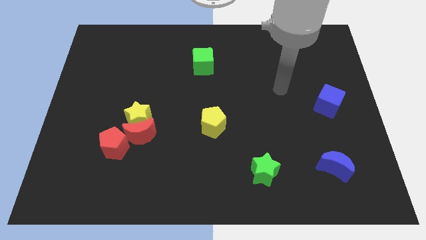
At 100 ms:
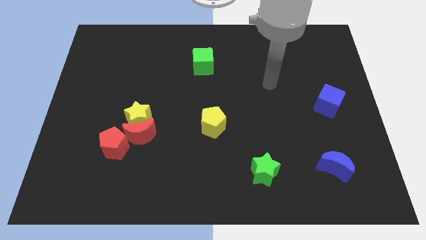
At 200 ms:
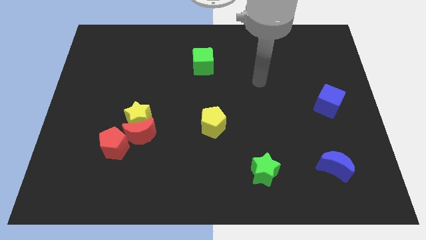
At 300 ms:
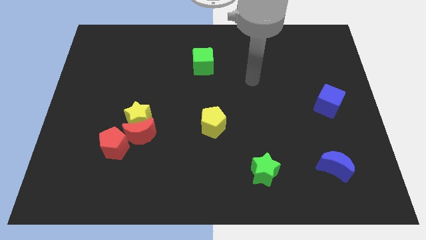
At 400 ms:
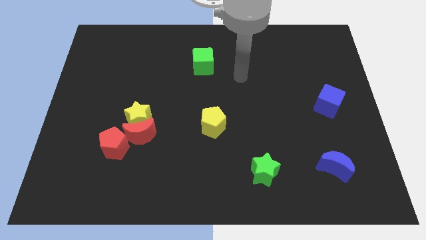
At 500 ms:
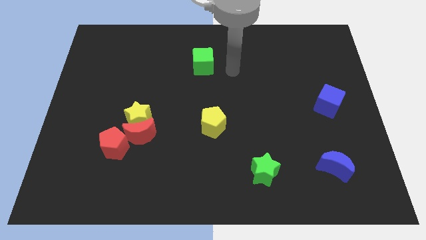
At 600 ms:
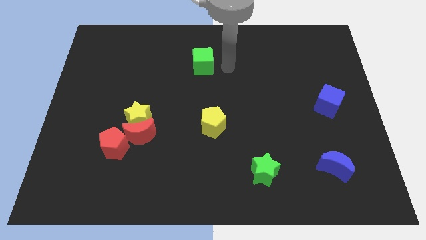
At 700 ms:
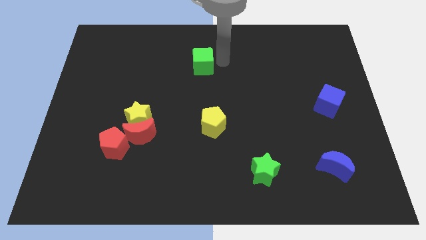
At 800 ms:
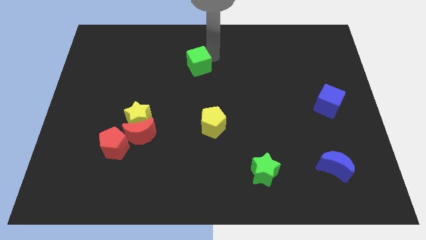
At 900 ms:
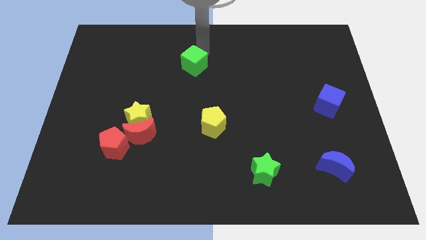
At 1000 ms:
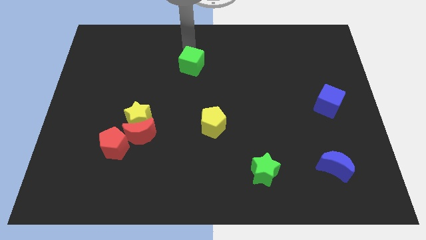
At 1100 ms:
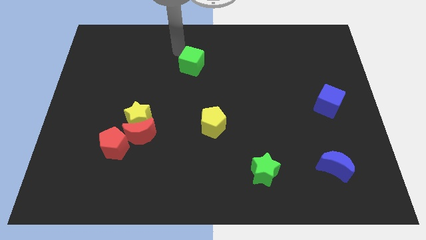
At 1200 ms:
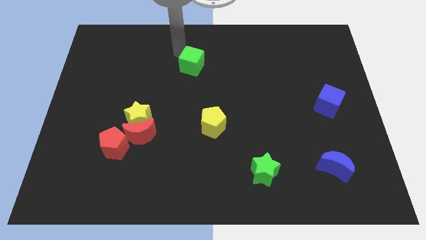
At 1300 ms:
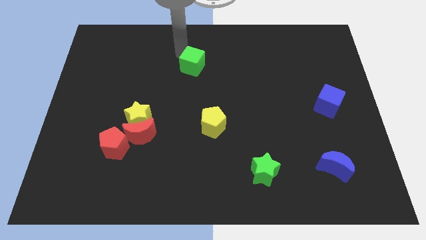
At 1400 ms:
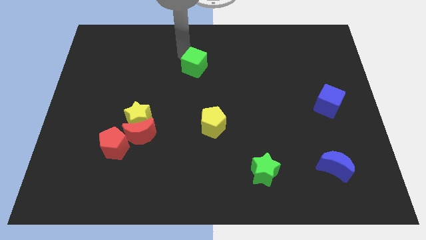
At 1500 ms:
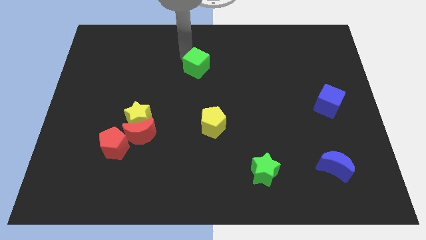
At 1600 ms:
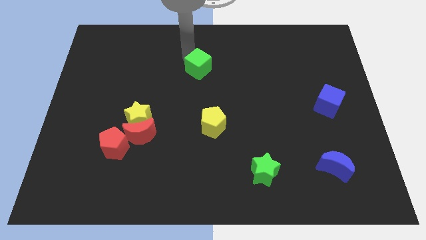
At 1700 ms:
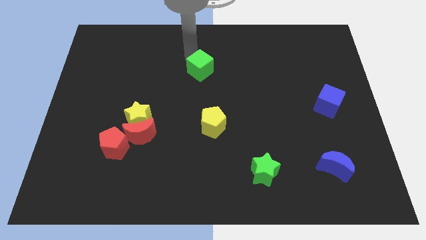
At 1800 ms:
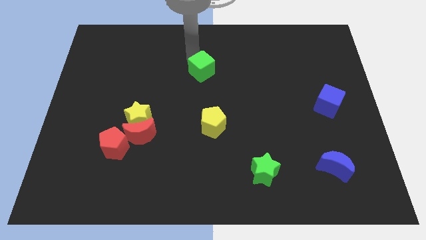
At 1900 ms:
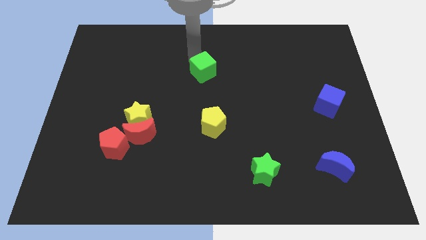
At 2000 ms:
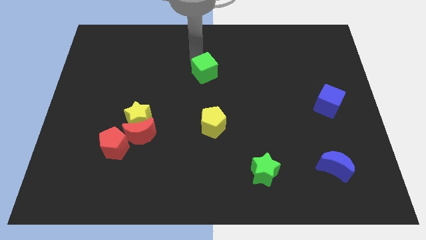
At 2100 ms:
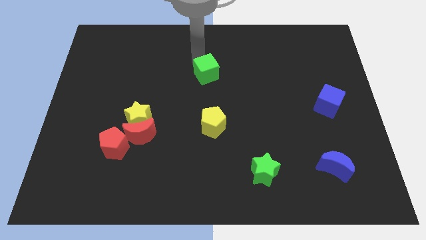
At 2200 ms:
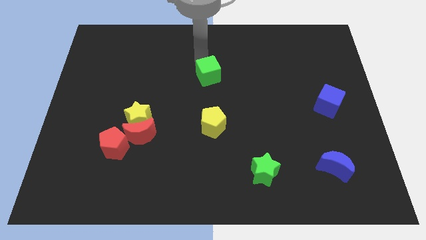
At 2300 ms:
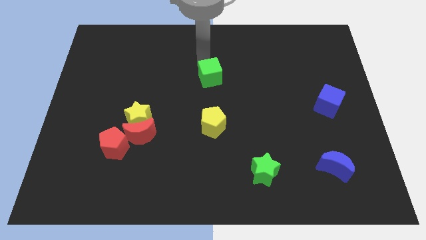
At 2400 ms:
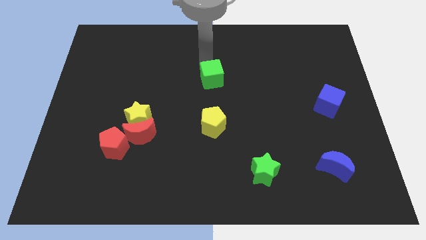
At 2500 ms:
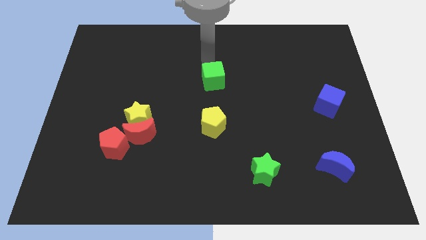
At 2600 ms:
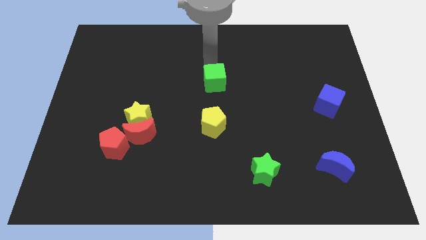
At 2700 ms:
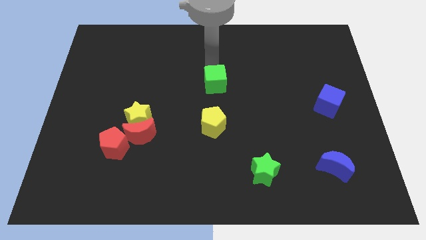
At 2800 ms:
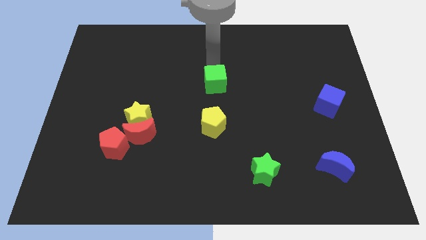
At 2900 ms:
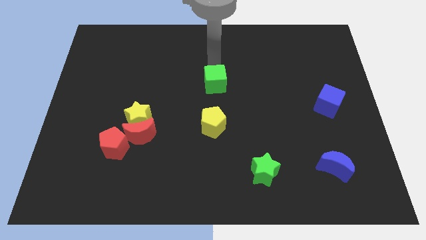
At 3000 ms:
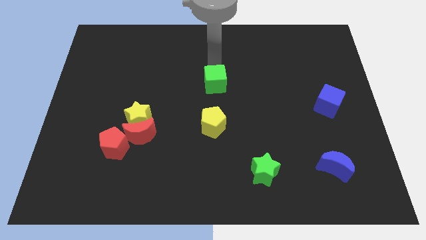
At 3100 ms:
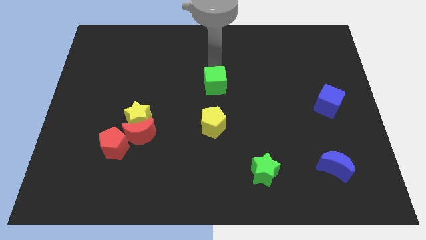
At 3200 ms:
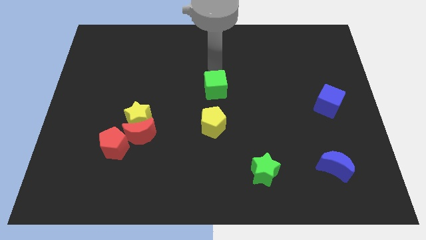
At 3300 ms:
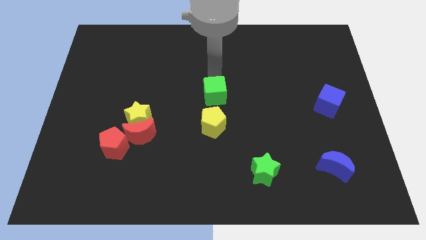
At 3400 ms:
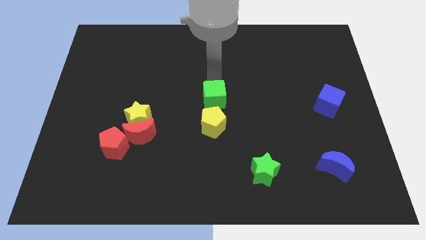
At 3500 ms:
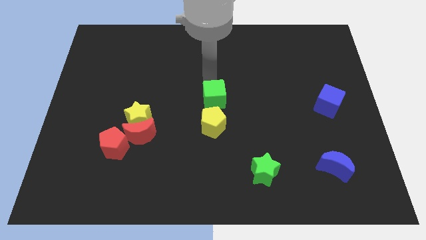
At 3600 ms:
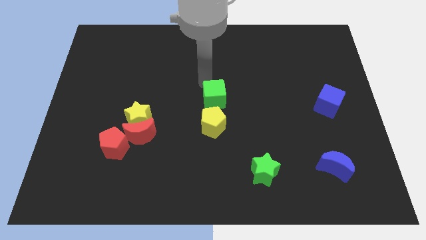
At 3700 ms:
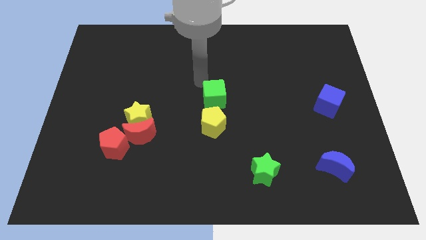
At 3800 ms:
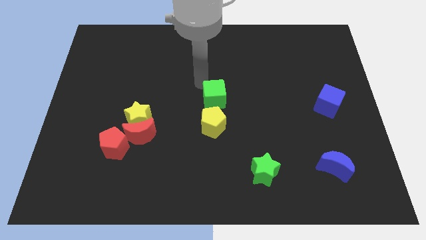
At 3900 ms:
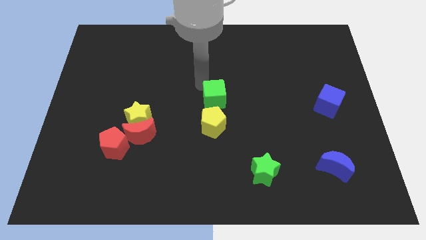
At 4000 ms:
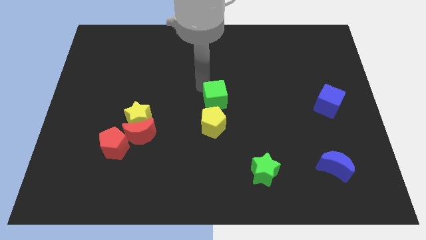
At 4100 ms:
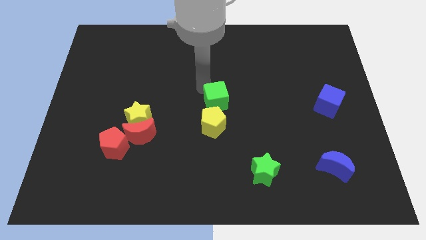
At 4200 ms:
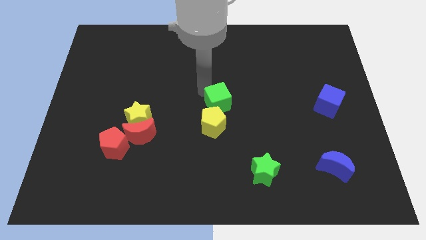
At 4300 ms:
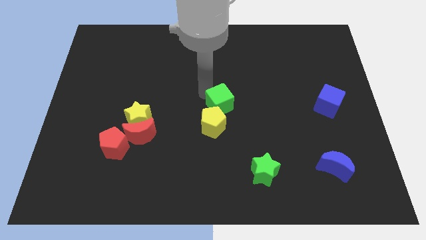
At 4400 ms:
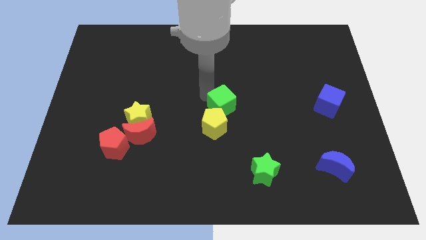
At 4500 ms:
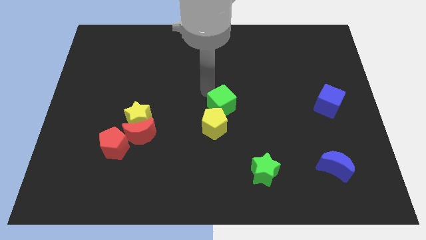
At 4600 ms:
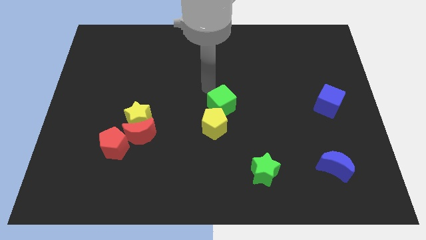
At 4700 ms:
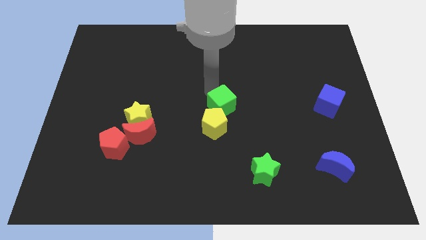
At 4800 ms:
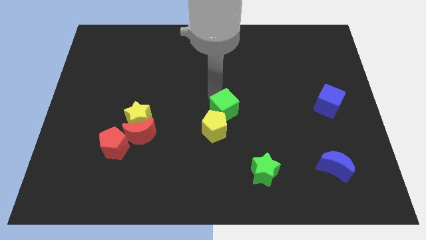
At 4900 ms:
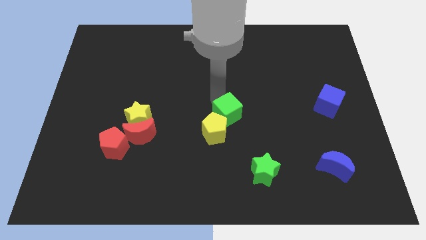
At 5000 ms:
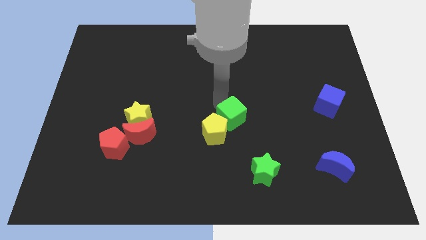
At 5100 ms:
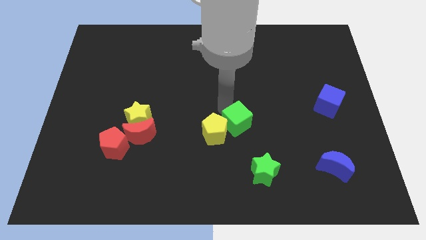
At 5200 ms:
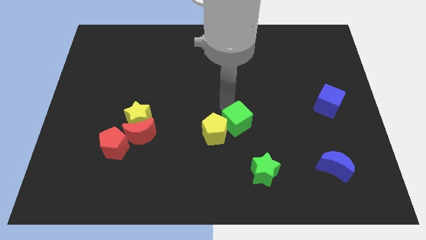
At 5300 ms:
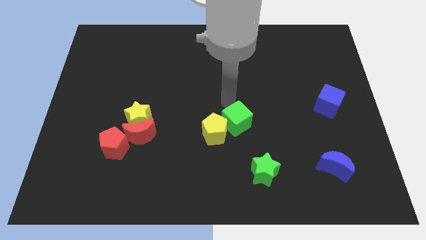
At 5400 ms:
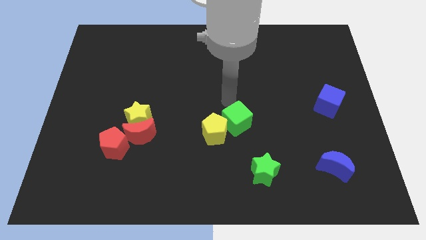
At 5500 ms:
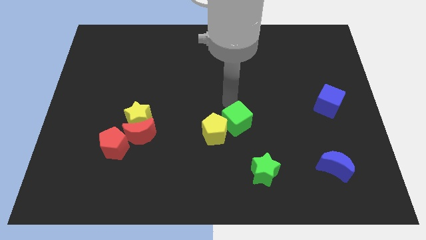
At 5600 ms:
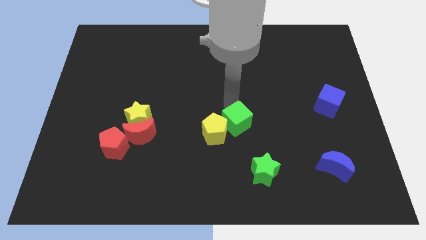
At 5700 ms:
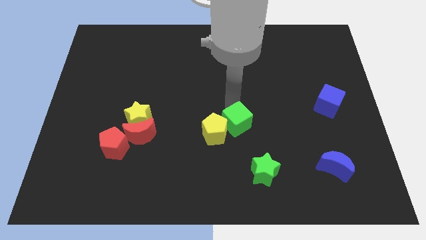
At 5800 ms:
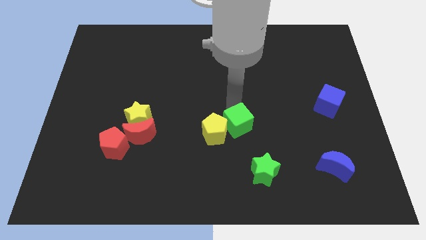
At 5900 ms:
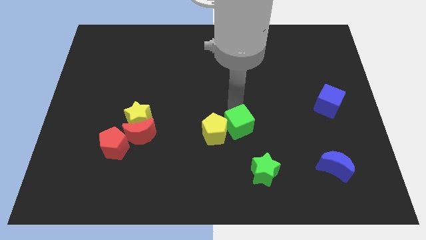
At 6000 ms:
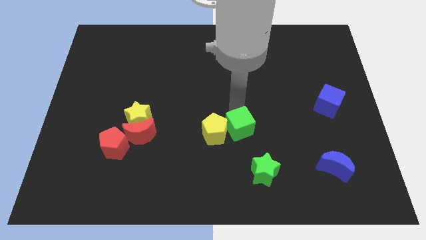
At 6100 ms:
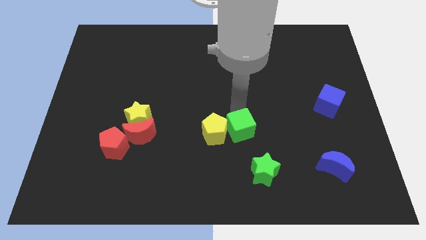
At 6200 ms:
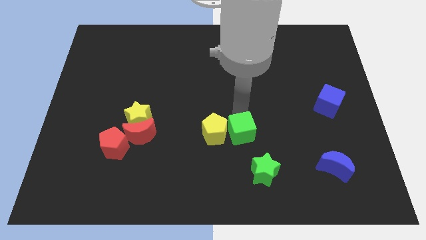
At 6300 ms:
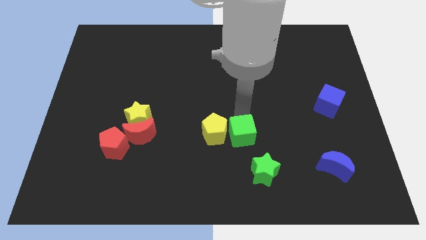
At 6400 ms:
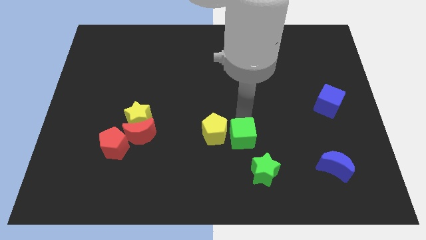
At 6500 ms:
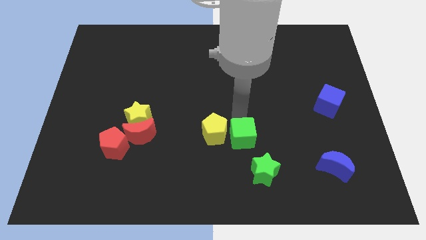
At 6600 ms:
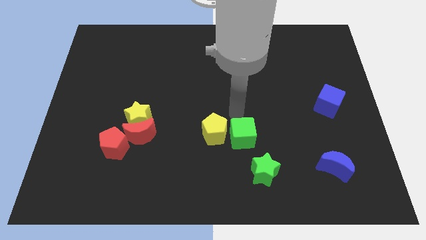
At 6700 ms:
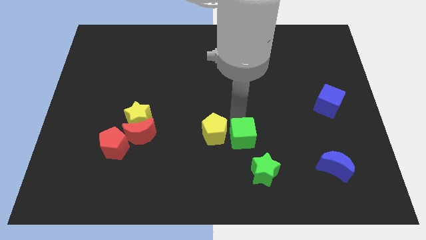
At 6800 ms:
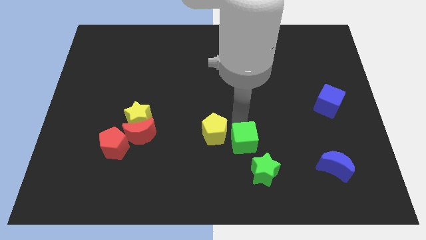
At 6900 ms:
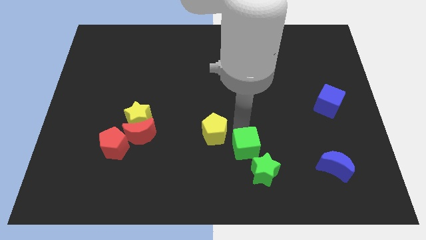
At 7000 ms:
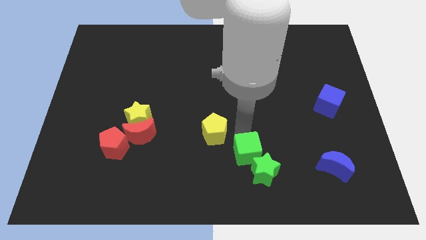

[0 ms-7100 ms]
move the green cube towards the green star
